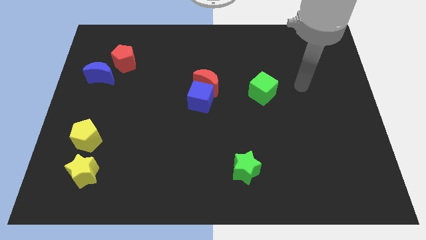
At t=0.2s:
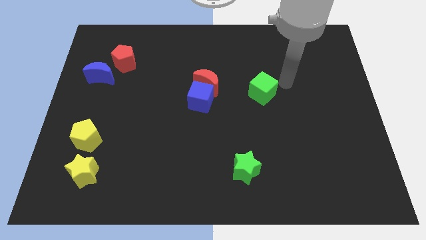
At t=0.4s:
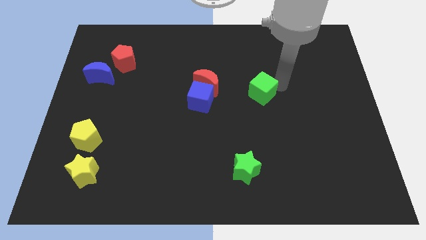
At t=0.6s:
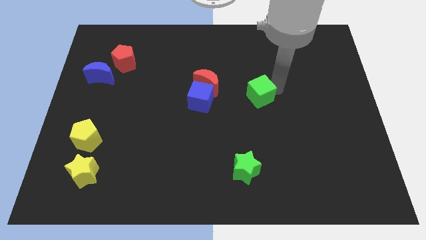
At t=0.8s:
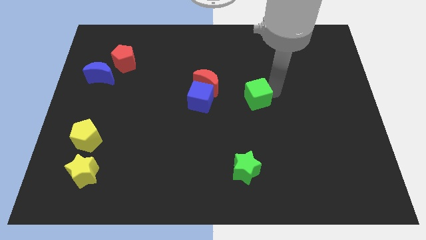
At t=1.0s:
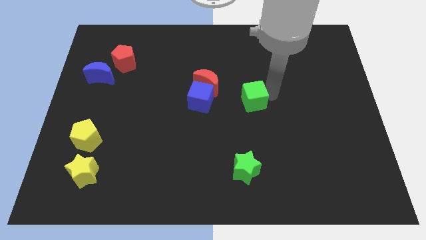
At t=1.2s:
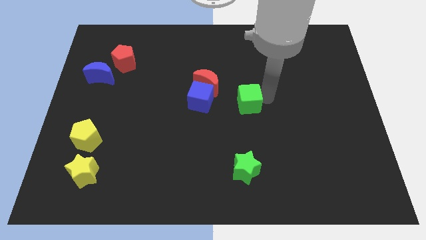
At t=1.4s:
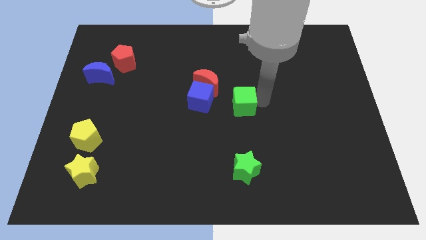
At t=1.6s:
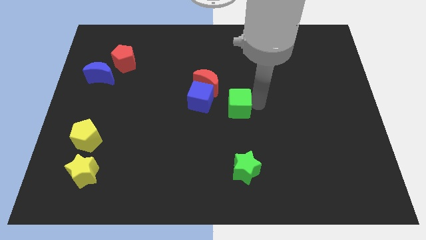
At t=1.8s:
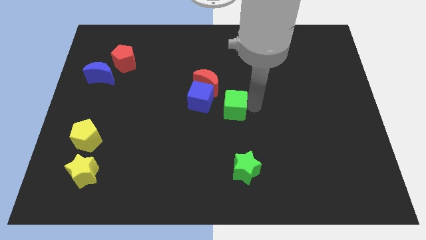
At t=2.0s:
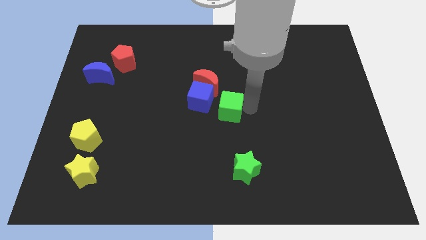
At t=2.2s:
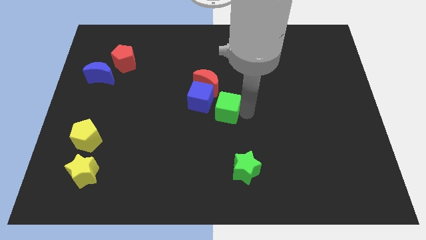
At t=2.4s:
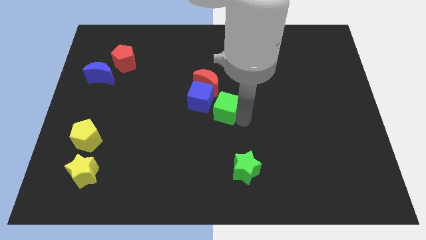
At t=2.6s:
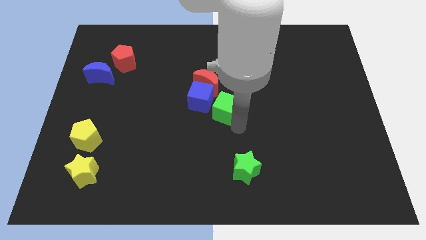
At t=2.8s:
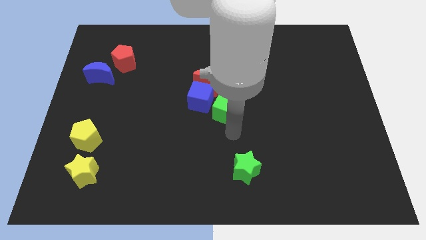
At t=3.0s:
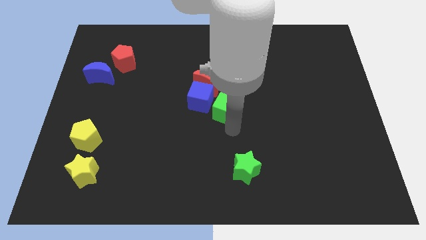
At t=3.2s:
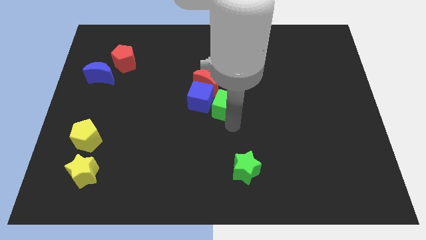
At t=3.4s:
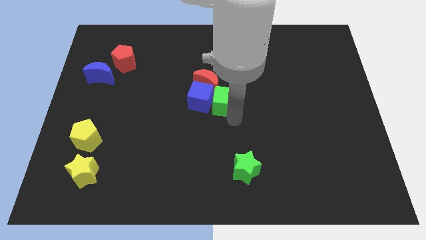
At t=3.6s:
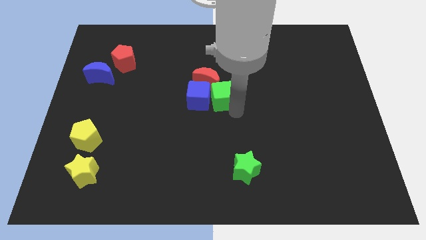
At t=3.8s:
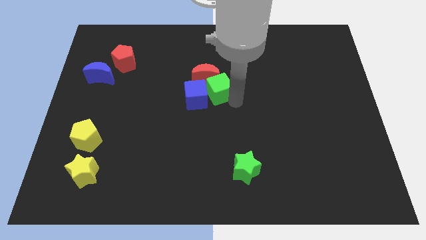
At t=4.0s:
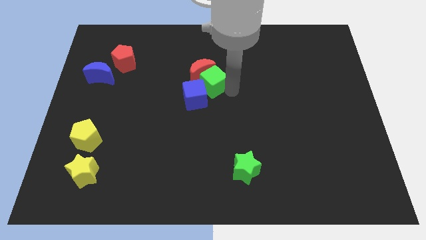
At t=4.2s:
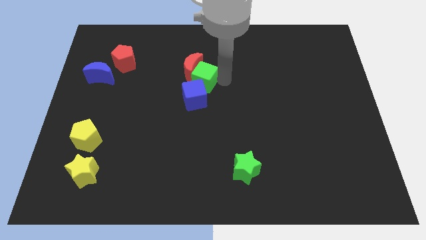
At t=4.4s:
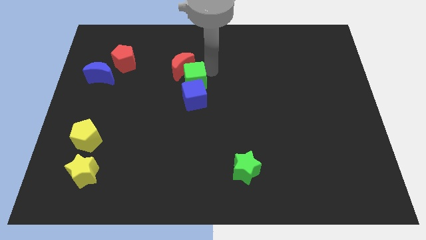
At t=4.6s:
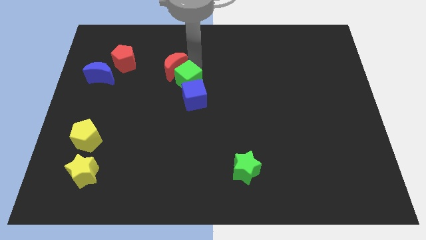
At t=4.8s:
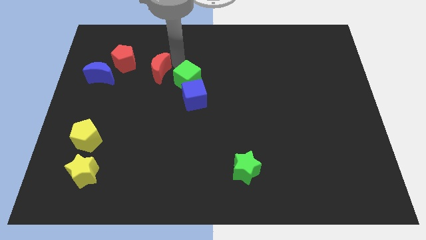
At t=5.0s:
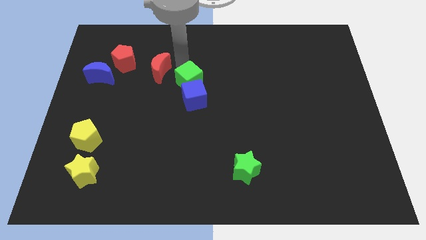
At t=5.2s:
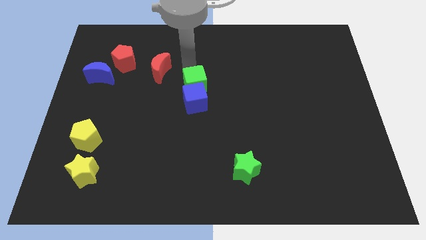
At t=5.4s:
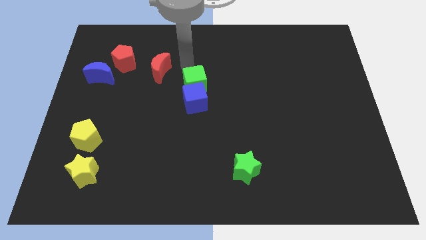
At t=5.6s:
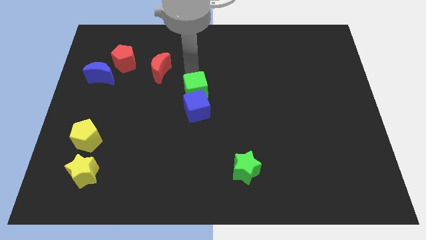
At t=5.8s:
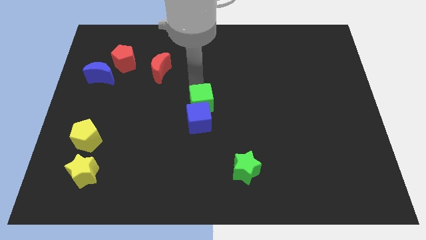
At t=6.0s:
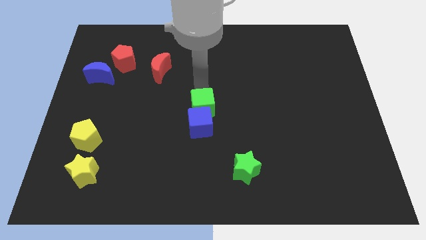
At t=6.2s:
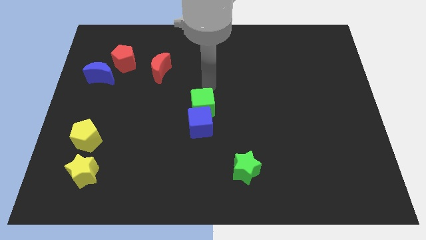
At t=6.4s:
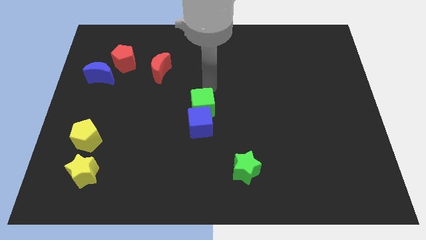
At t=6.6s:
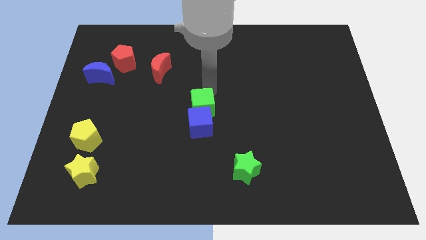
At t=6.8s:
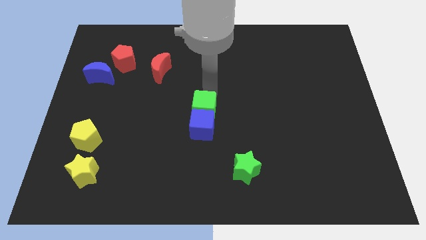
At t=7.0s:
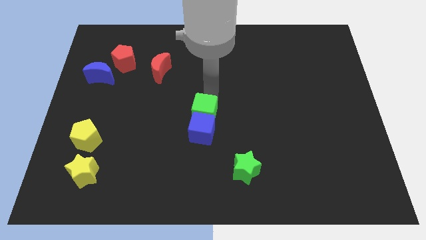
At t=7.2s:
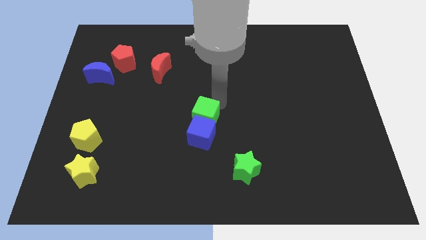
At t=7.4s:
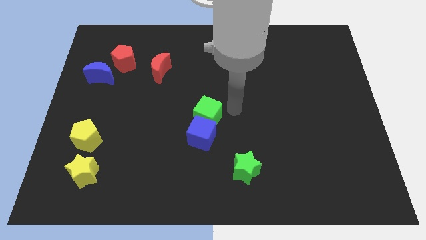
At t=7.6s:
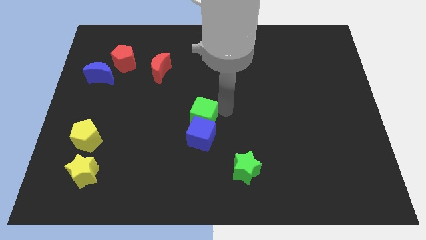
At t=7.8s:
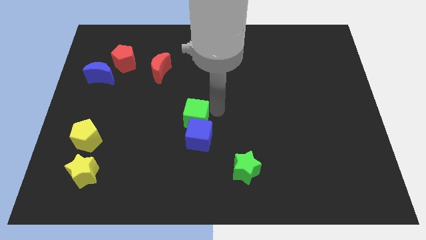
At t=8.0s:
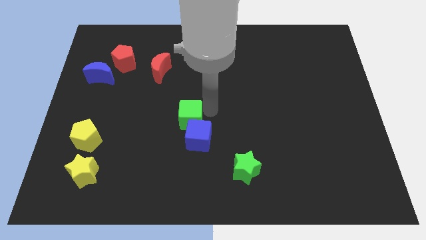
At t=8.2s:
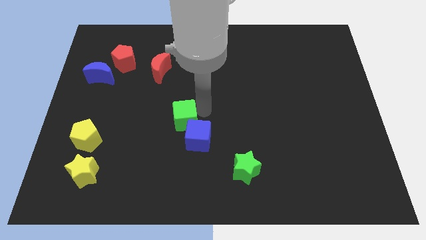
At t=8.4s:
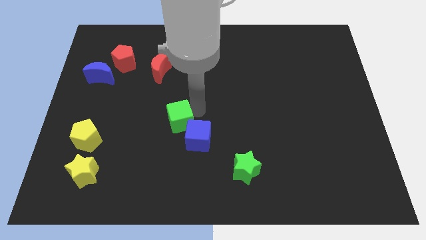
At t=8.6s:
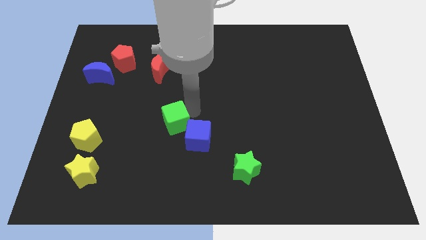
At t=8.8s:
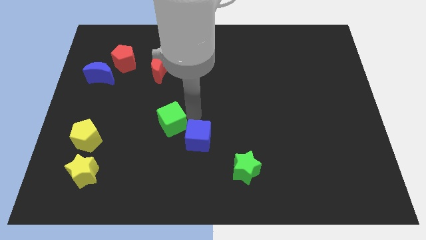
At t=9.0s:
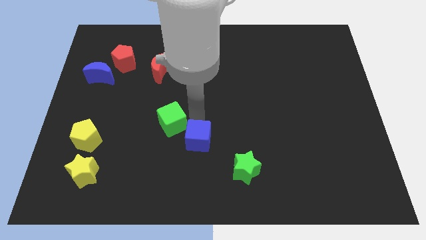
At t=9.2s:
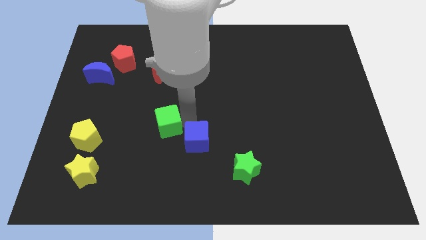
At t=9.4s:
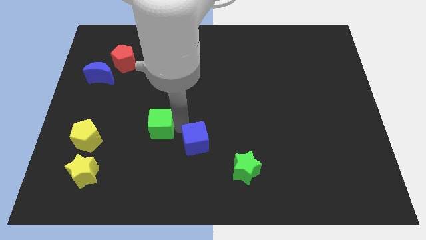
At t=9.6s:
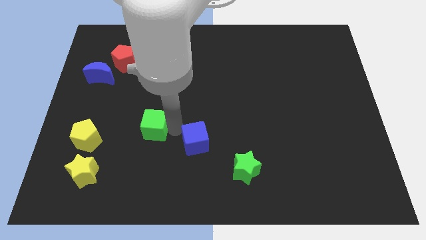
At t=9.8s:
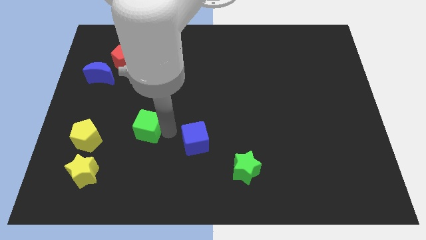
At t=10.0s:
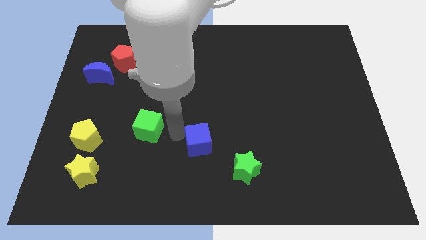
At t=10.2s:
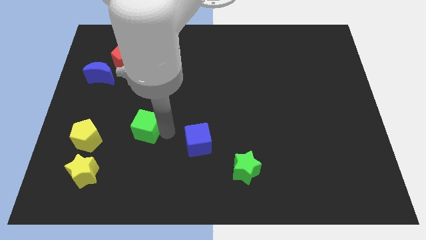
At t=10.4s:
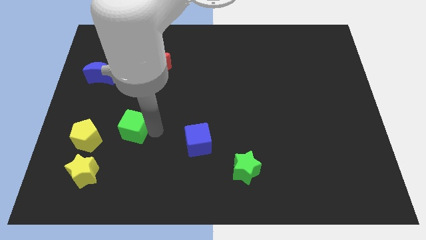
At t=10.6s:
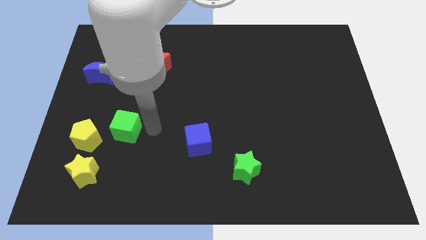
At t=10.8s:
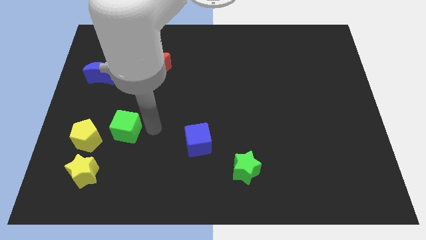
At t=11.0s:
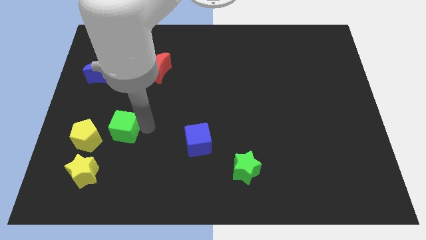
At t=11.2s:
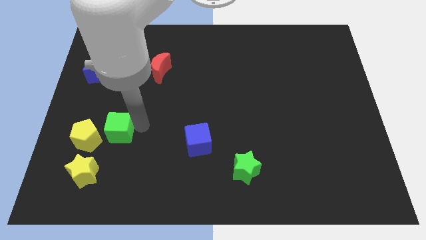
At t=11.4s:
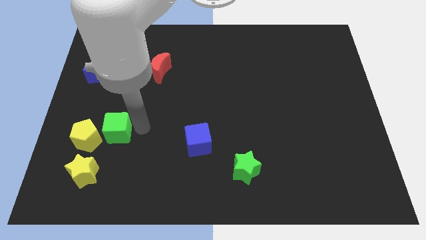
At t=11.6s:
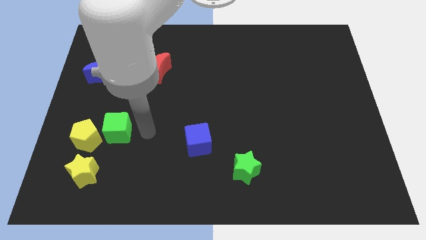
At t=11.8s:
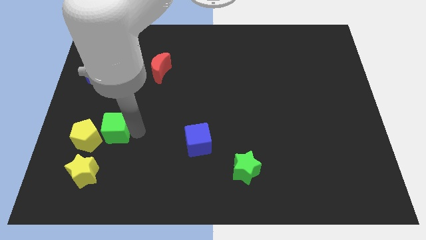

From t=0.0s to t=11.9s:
move the green cube towards the yellow pentagon
